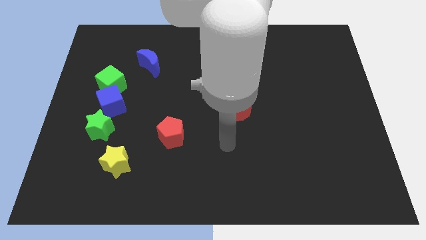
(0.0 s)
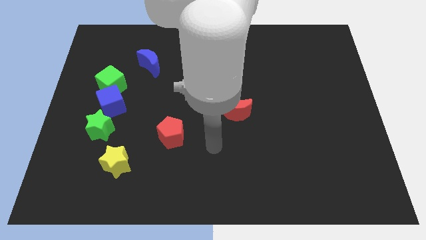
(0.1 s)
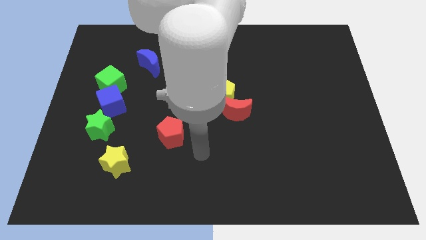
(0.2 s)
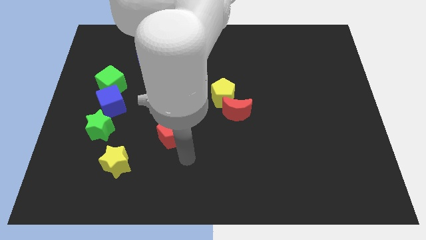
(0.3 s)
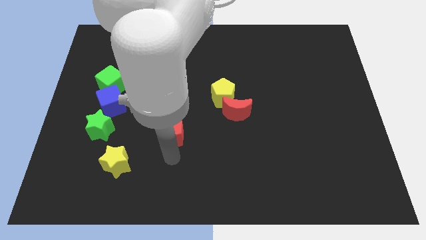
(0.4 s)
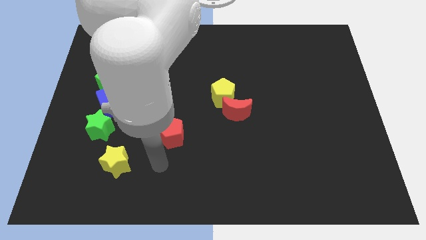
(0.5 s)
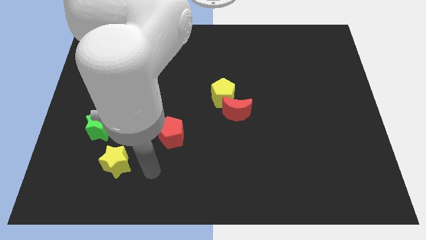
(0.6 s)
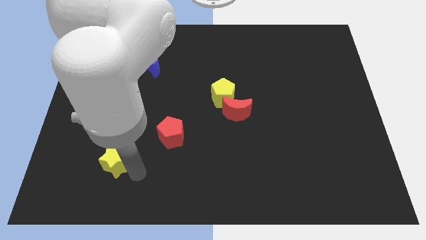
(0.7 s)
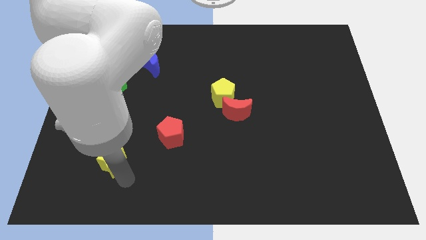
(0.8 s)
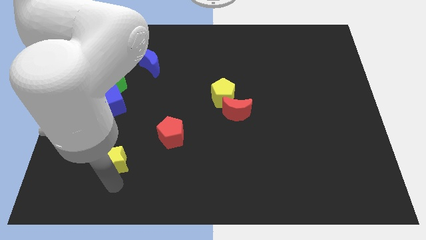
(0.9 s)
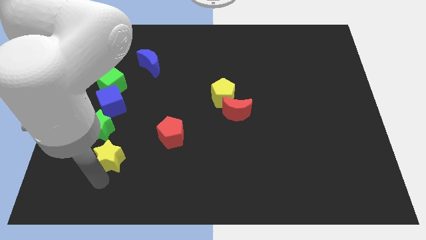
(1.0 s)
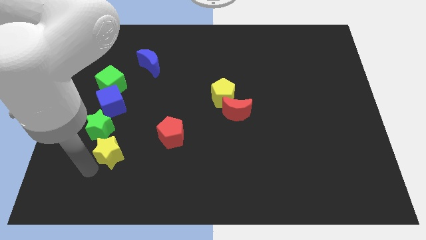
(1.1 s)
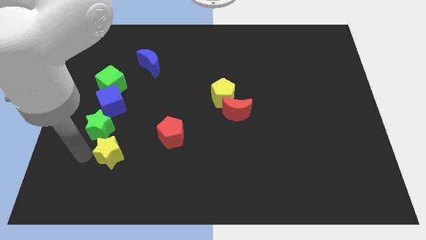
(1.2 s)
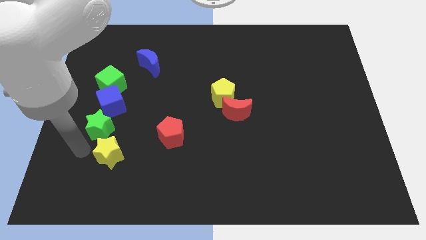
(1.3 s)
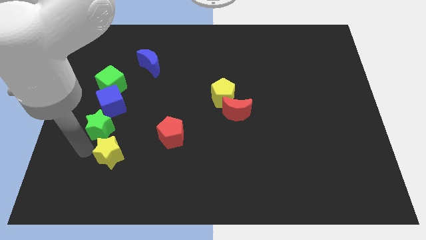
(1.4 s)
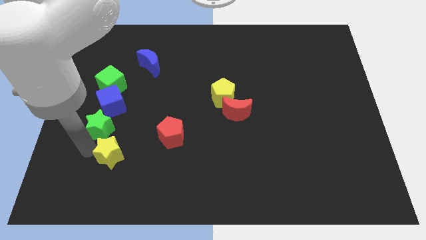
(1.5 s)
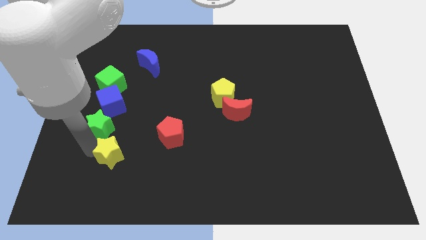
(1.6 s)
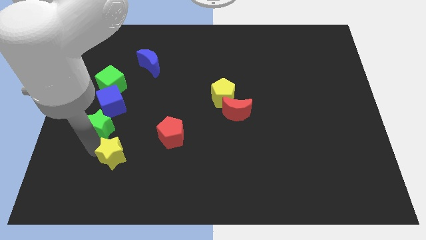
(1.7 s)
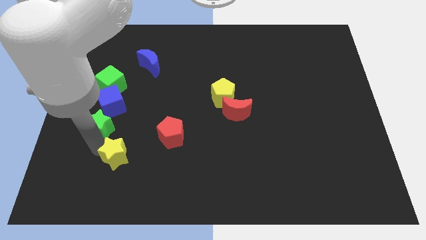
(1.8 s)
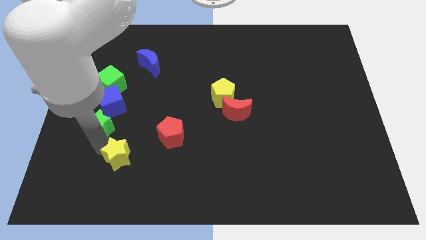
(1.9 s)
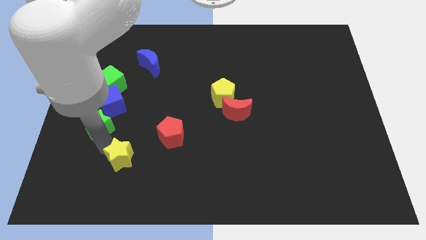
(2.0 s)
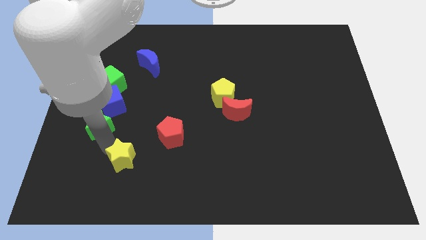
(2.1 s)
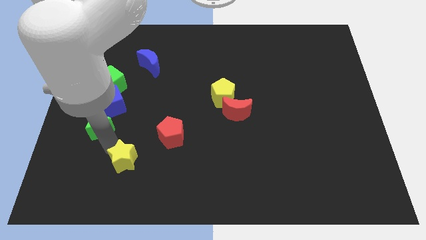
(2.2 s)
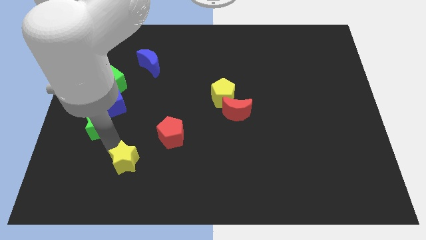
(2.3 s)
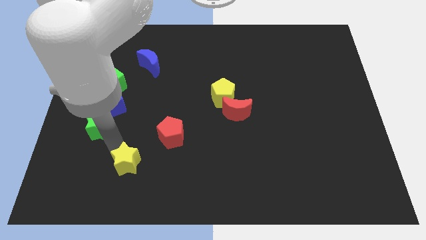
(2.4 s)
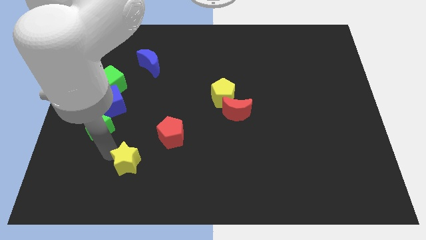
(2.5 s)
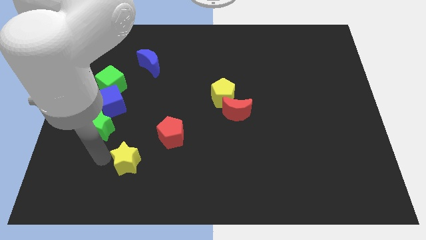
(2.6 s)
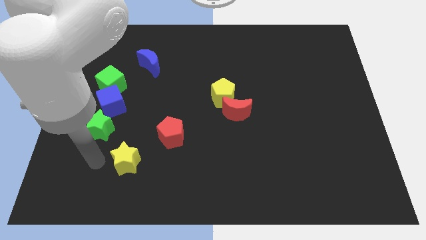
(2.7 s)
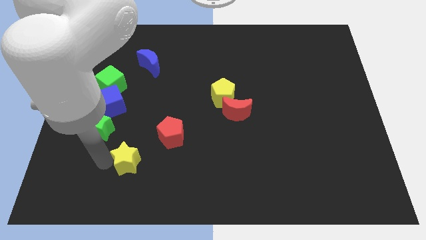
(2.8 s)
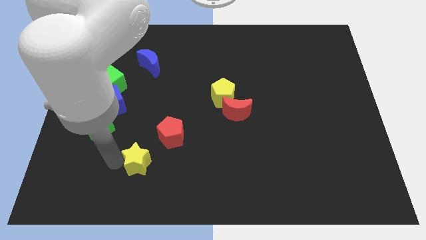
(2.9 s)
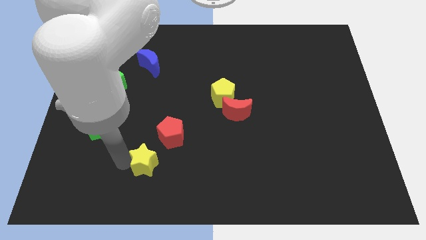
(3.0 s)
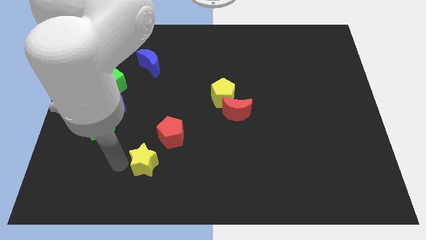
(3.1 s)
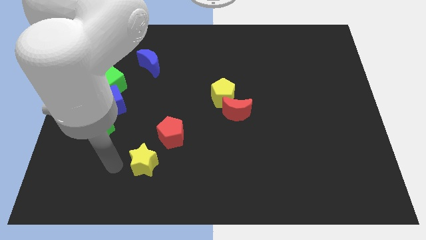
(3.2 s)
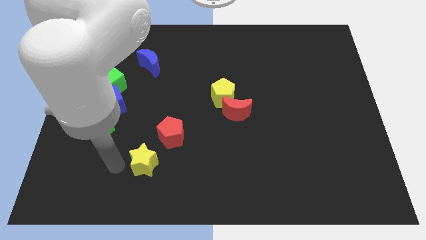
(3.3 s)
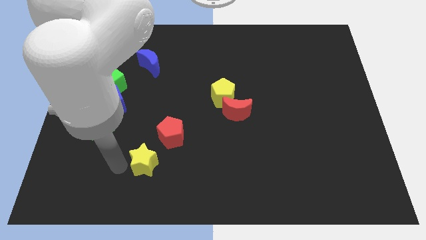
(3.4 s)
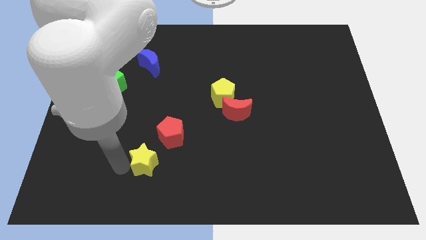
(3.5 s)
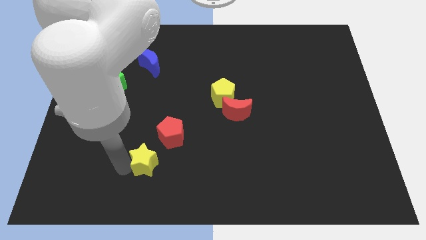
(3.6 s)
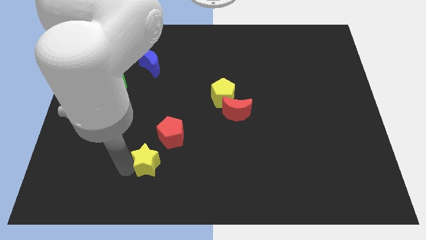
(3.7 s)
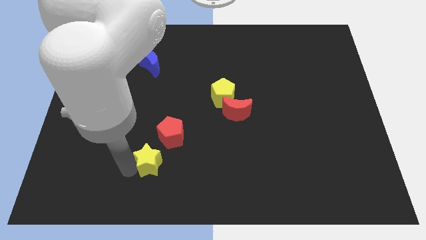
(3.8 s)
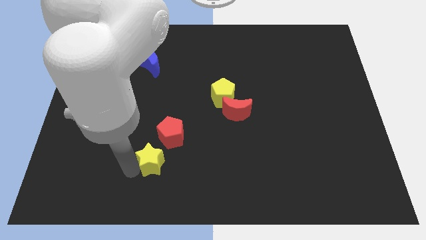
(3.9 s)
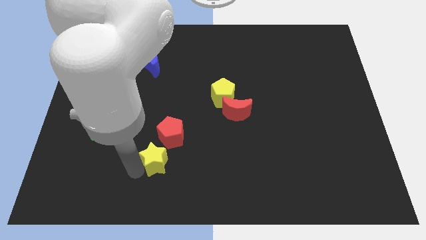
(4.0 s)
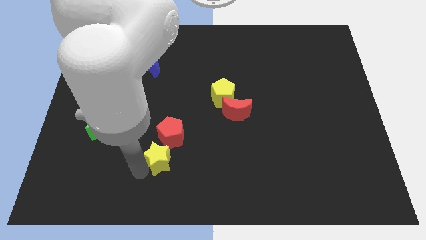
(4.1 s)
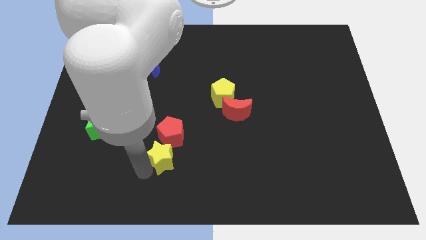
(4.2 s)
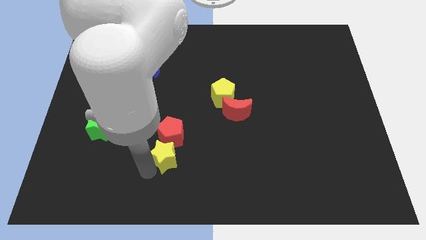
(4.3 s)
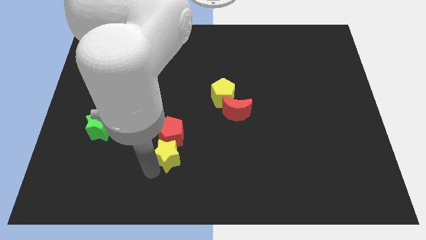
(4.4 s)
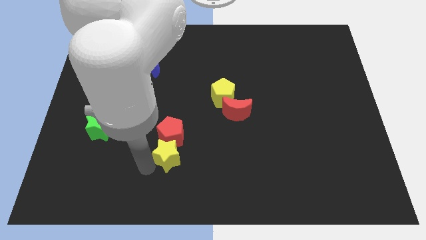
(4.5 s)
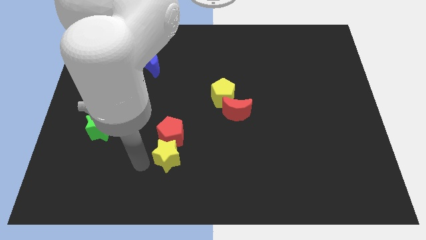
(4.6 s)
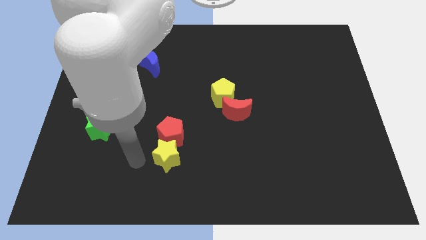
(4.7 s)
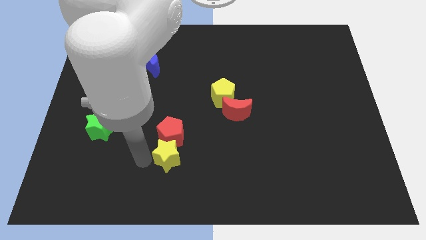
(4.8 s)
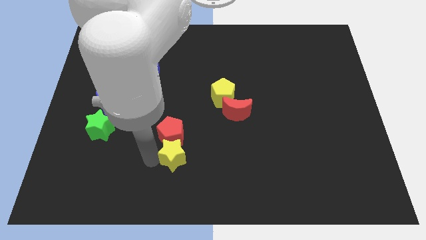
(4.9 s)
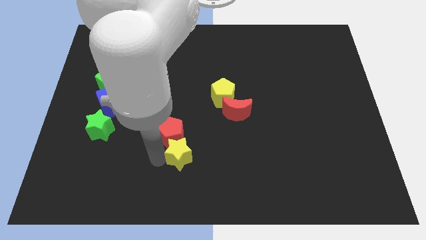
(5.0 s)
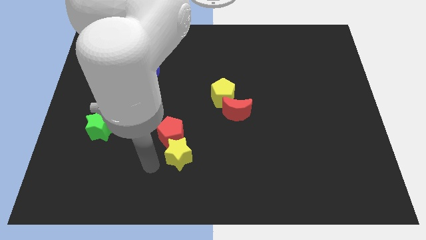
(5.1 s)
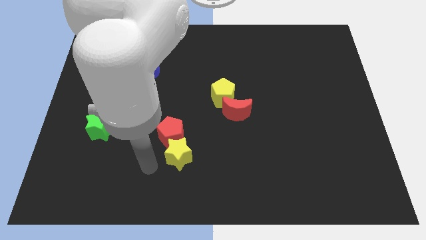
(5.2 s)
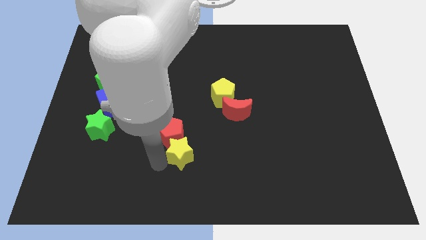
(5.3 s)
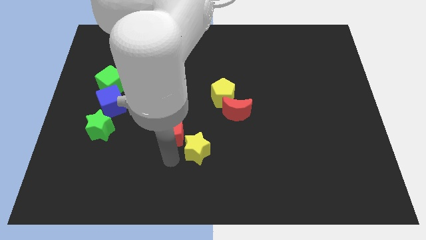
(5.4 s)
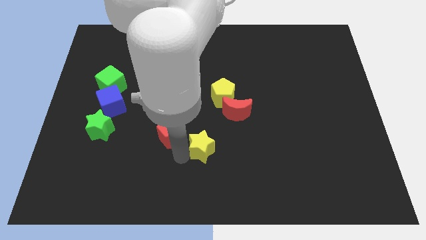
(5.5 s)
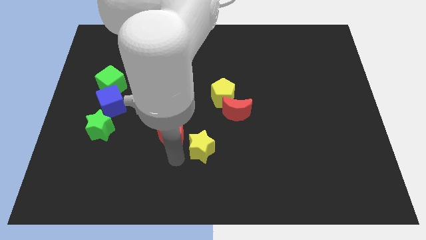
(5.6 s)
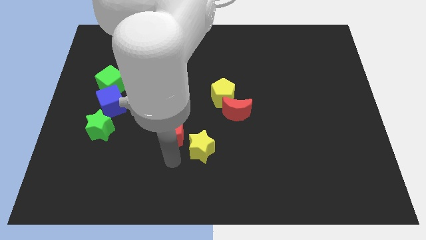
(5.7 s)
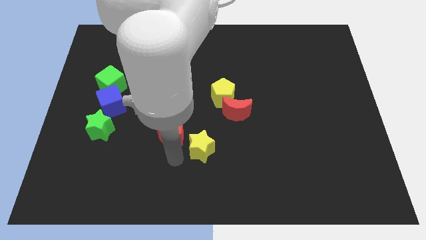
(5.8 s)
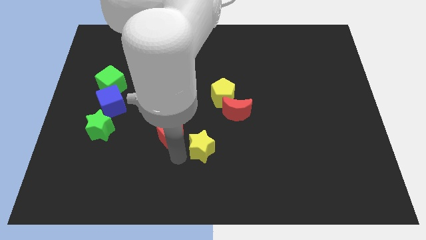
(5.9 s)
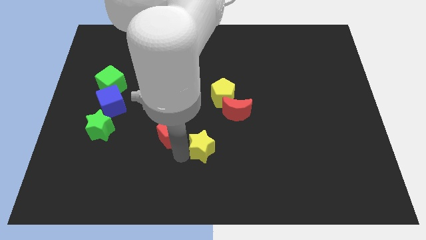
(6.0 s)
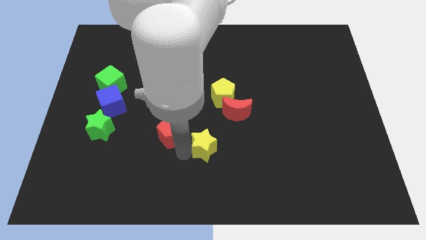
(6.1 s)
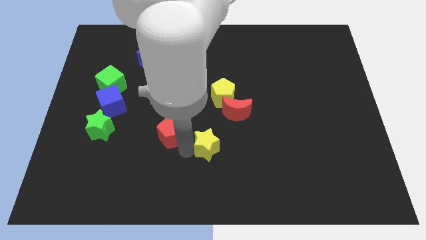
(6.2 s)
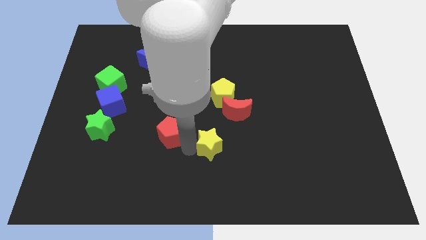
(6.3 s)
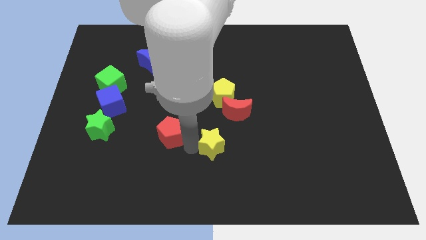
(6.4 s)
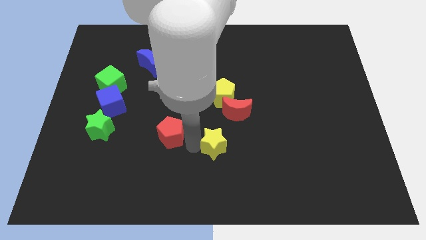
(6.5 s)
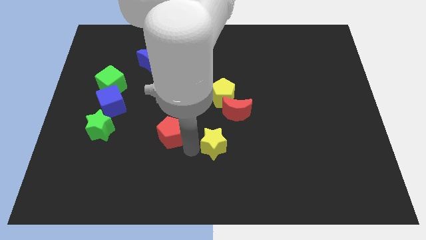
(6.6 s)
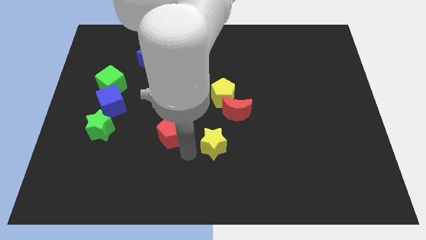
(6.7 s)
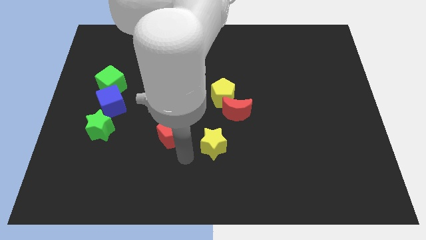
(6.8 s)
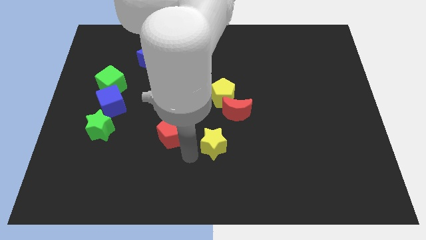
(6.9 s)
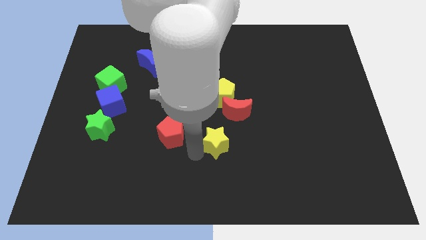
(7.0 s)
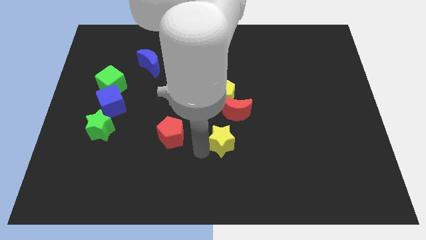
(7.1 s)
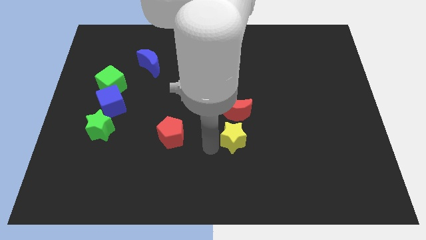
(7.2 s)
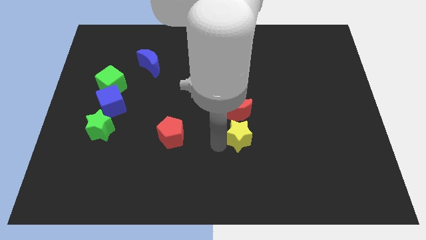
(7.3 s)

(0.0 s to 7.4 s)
put the yellow star to the bottom right side of the red moon
